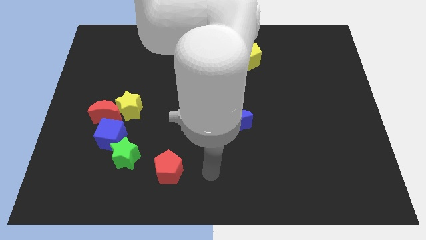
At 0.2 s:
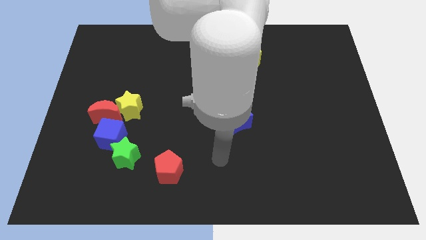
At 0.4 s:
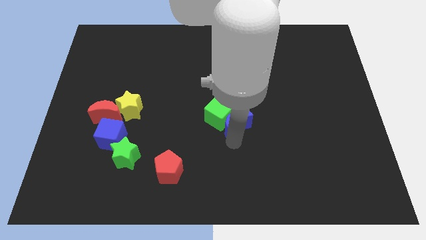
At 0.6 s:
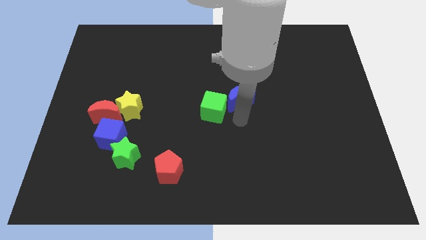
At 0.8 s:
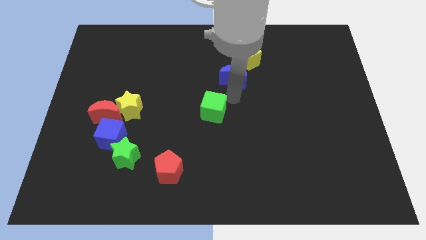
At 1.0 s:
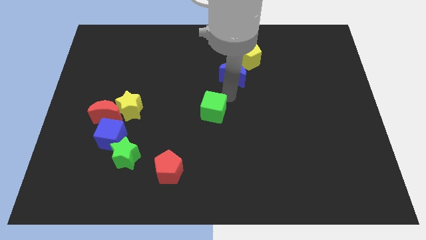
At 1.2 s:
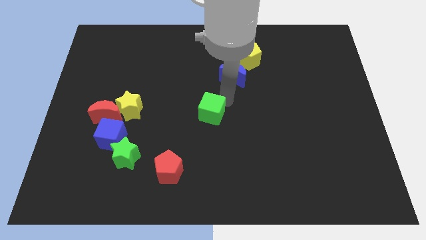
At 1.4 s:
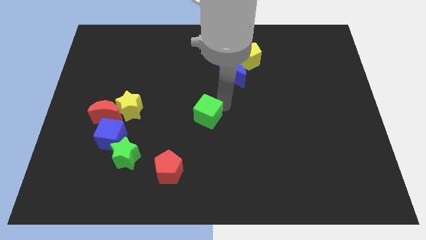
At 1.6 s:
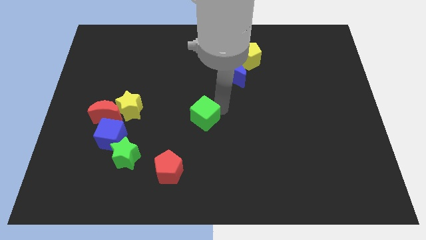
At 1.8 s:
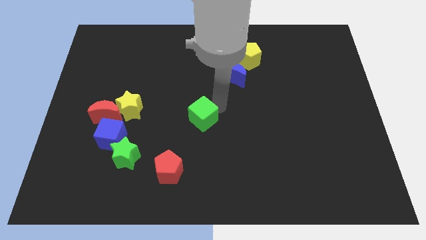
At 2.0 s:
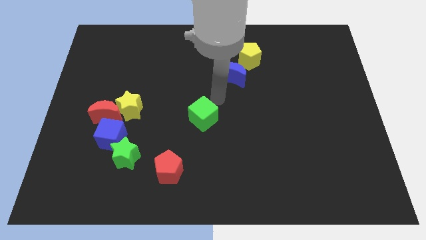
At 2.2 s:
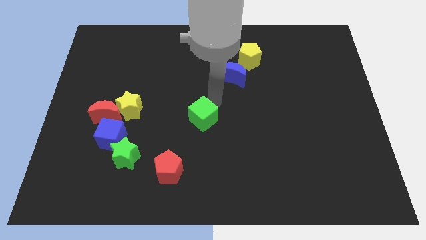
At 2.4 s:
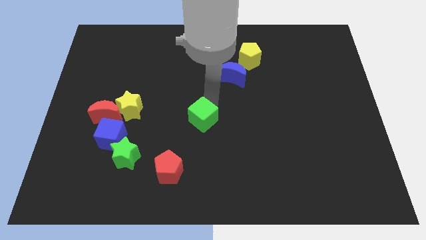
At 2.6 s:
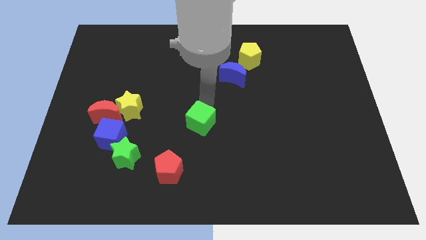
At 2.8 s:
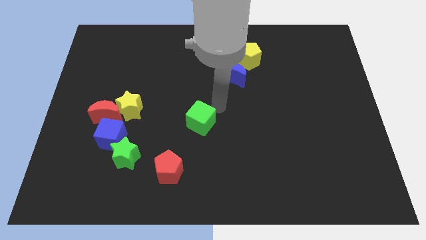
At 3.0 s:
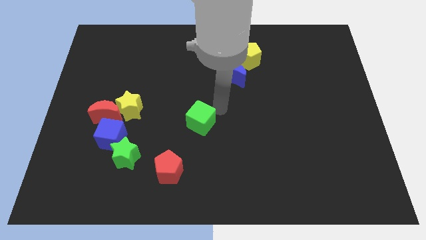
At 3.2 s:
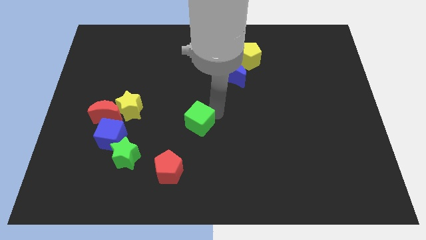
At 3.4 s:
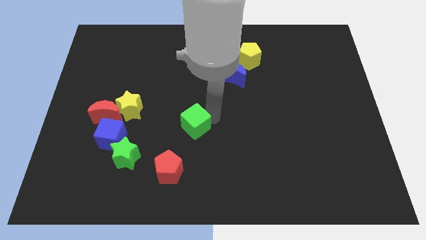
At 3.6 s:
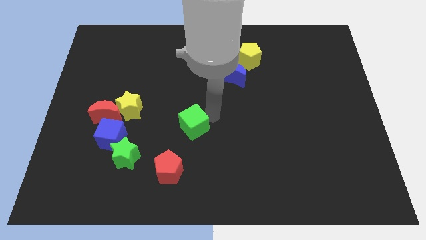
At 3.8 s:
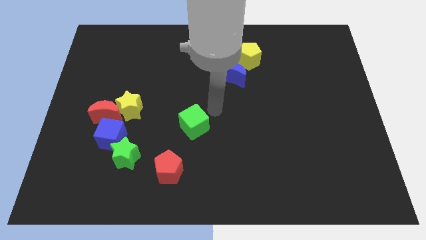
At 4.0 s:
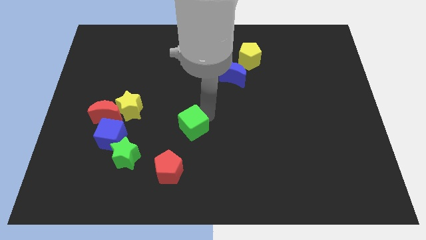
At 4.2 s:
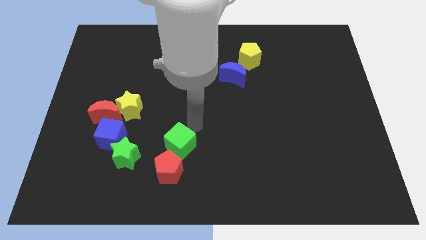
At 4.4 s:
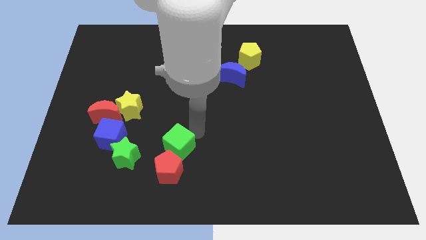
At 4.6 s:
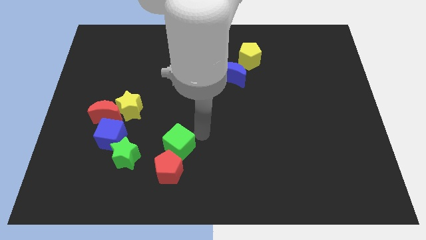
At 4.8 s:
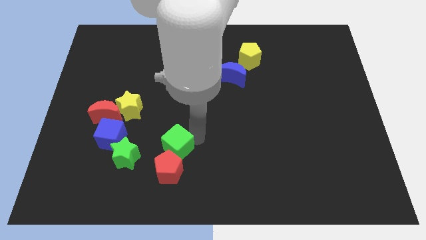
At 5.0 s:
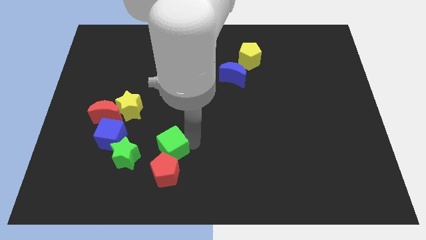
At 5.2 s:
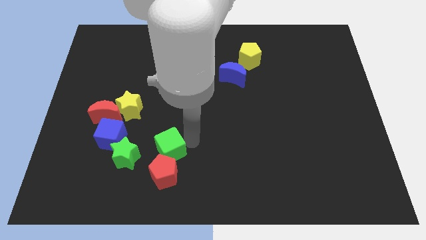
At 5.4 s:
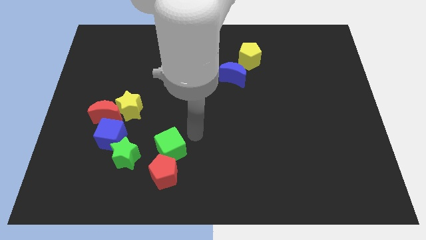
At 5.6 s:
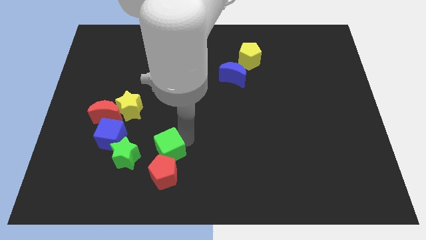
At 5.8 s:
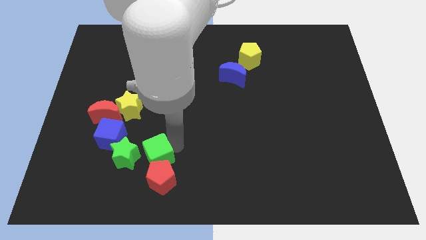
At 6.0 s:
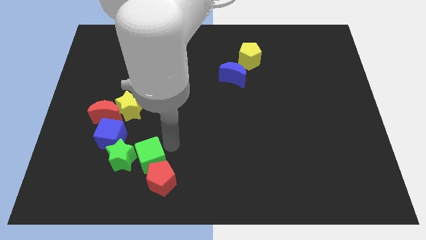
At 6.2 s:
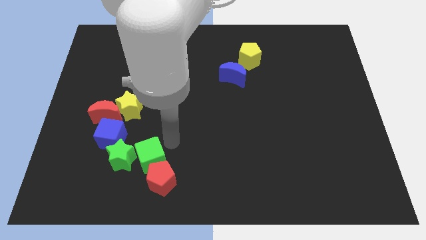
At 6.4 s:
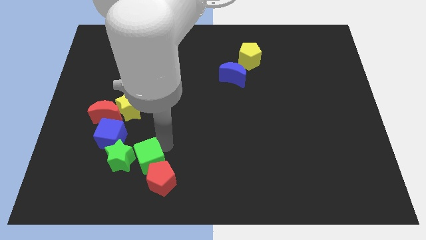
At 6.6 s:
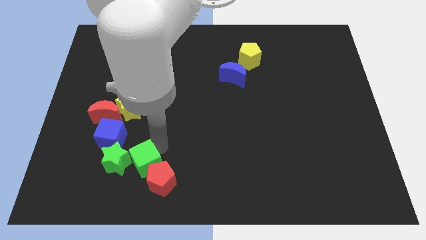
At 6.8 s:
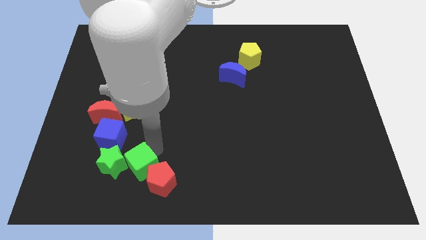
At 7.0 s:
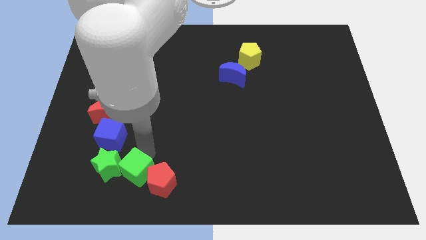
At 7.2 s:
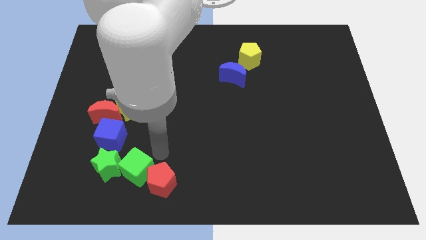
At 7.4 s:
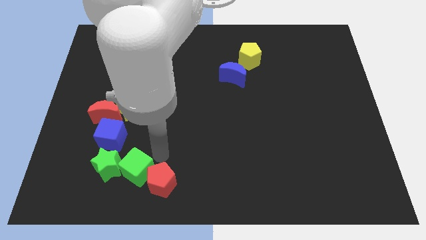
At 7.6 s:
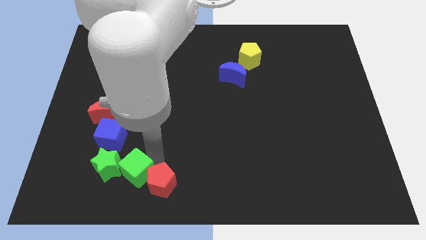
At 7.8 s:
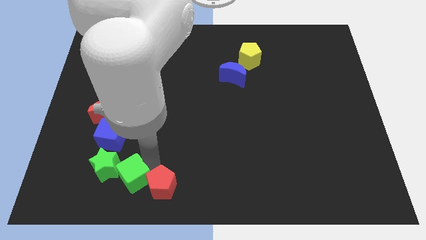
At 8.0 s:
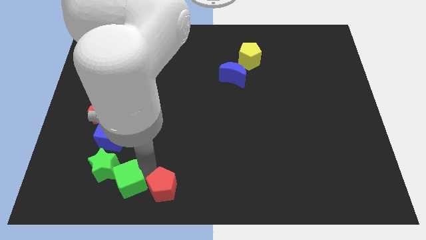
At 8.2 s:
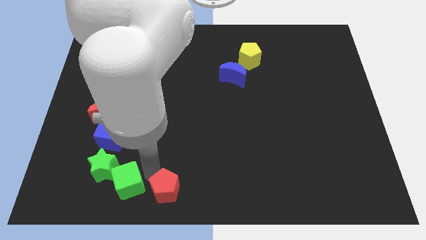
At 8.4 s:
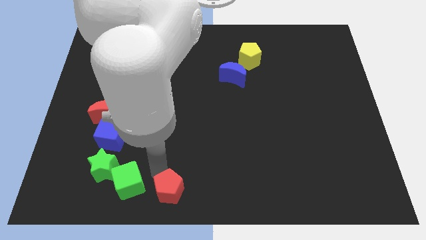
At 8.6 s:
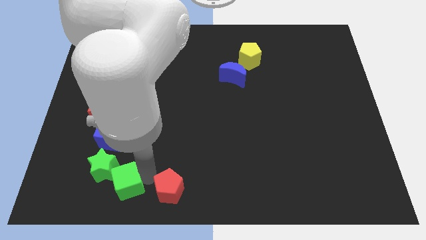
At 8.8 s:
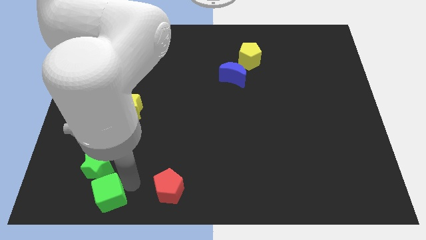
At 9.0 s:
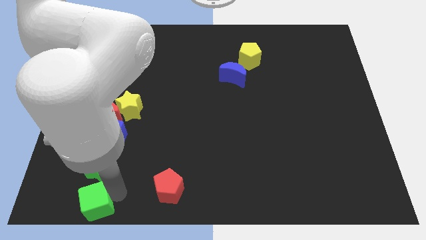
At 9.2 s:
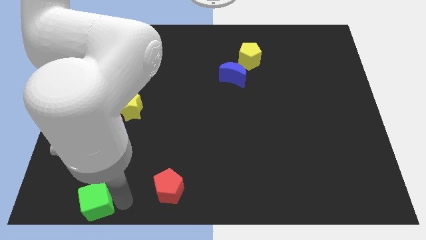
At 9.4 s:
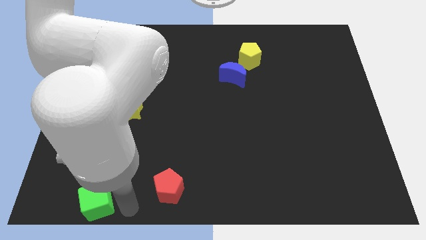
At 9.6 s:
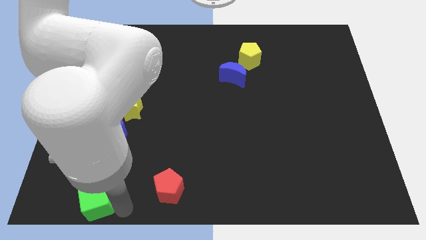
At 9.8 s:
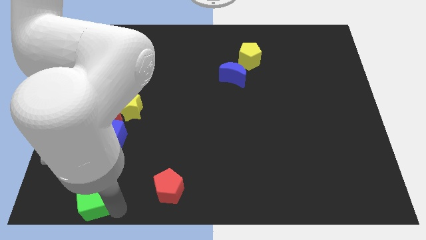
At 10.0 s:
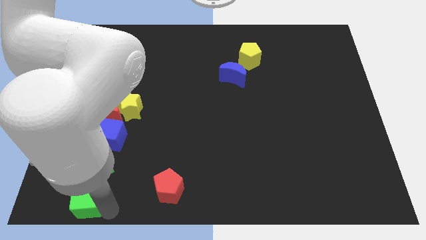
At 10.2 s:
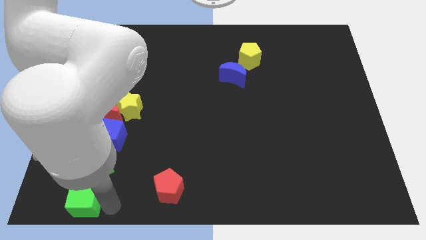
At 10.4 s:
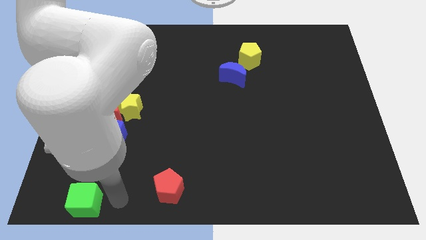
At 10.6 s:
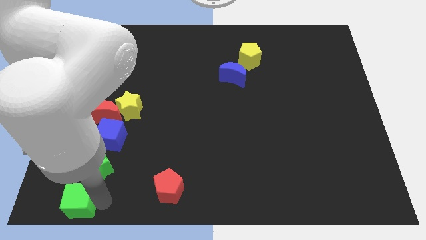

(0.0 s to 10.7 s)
slide the green cube to the bottom left

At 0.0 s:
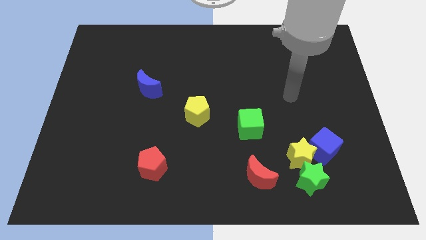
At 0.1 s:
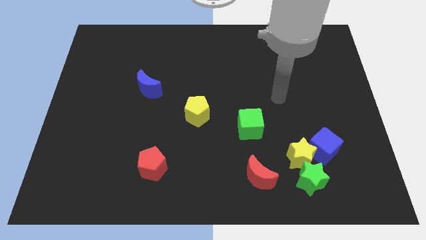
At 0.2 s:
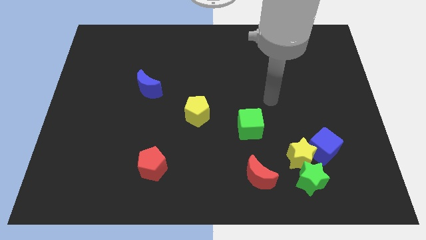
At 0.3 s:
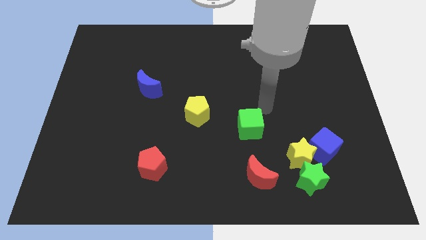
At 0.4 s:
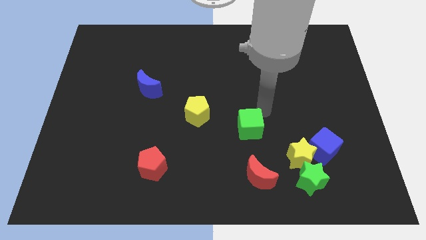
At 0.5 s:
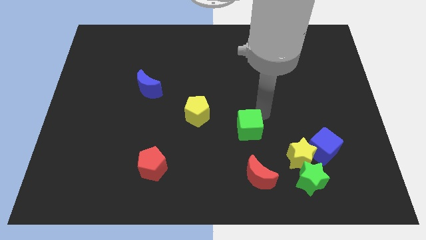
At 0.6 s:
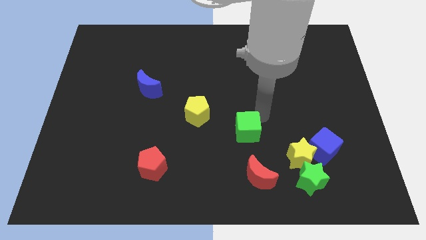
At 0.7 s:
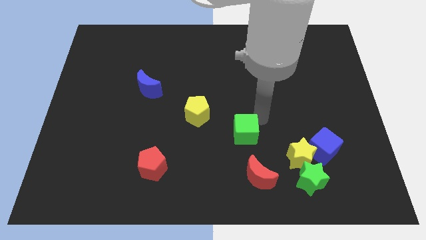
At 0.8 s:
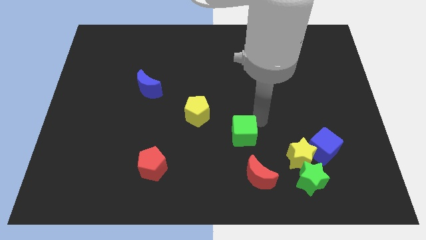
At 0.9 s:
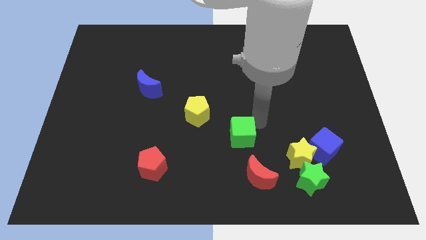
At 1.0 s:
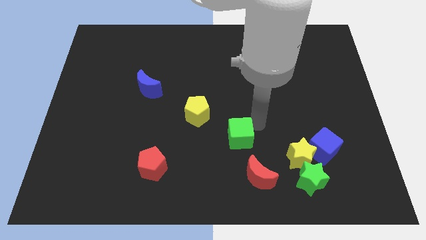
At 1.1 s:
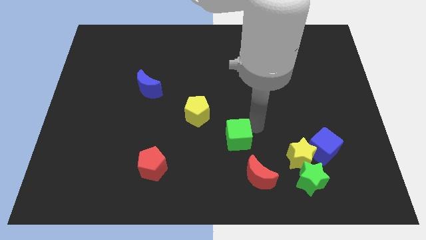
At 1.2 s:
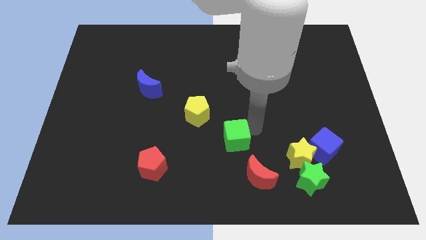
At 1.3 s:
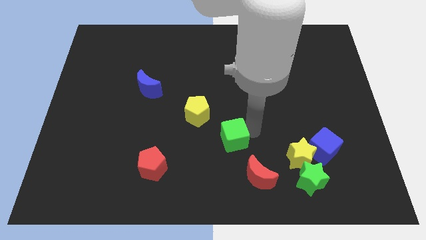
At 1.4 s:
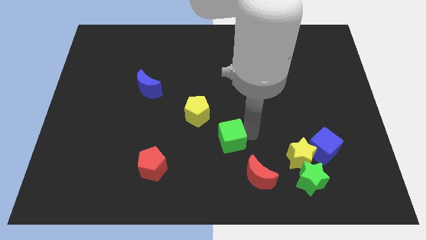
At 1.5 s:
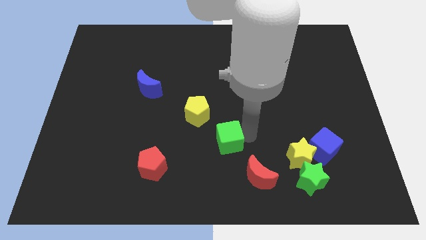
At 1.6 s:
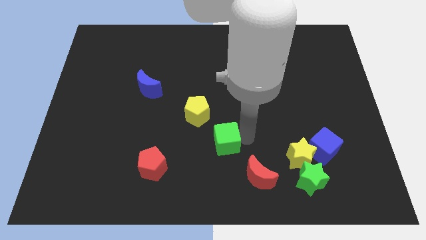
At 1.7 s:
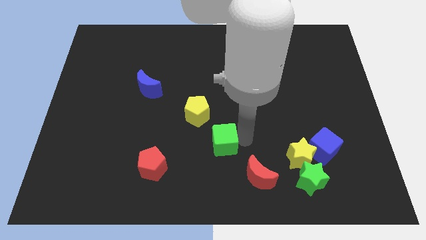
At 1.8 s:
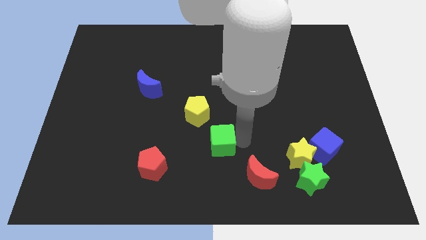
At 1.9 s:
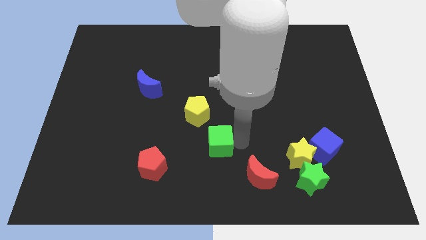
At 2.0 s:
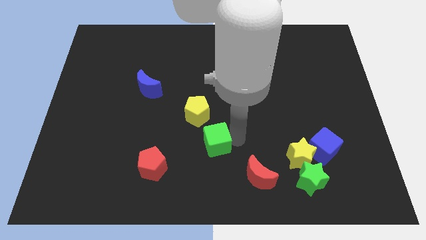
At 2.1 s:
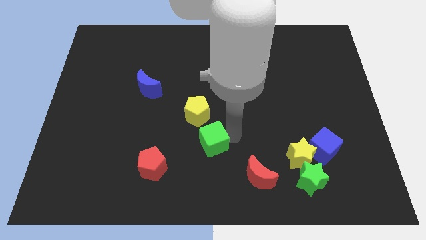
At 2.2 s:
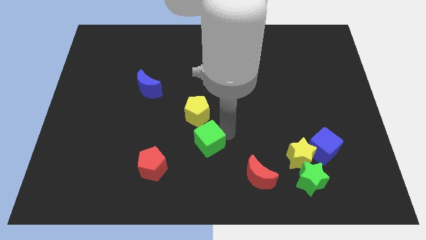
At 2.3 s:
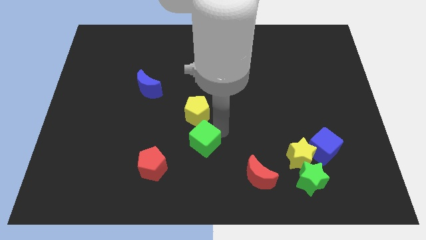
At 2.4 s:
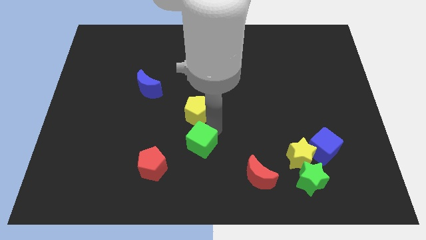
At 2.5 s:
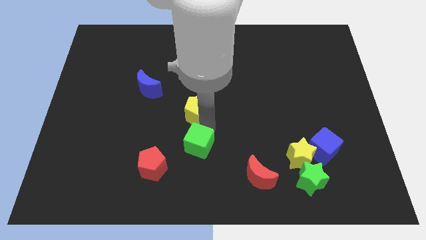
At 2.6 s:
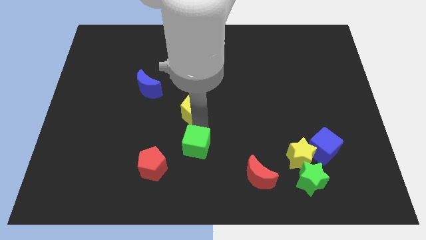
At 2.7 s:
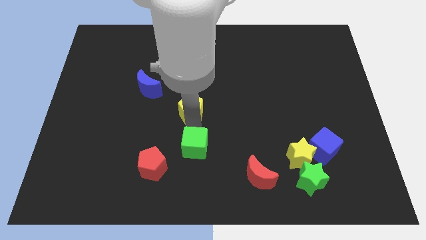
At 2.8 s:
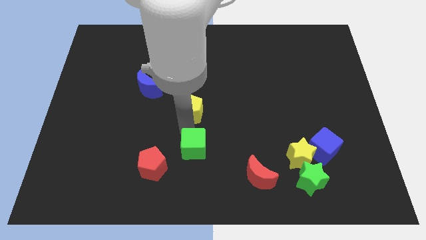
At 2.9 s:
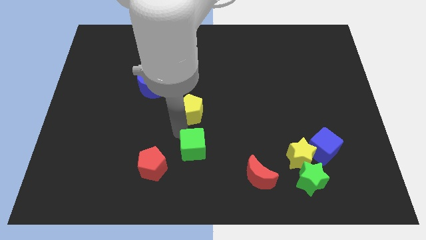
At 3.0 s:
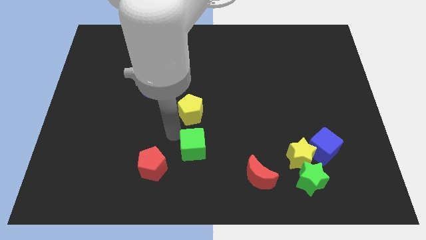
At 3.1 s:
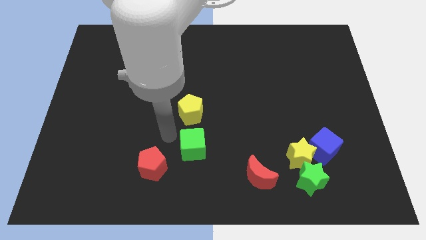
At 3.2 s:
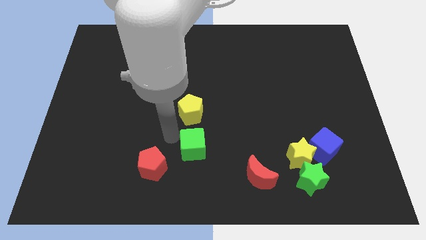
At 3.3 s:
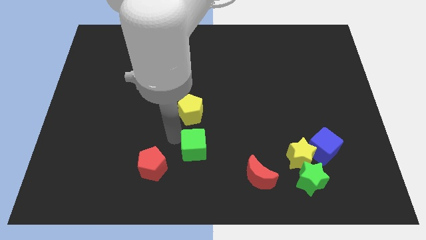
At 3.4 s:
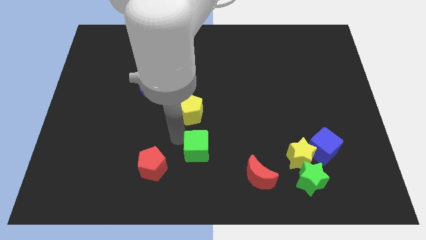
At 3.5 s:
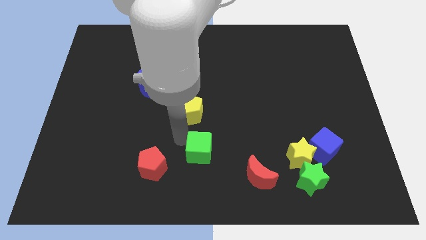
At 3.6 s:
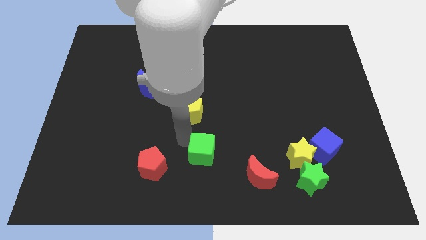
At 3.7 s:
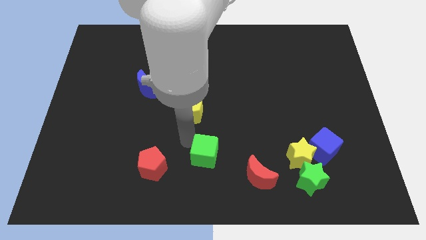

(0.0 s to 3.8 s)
move the green cube to the bottom side
